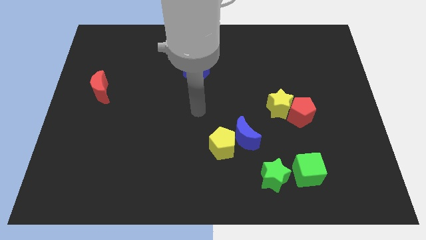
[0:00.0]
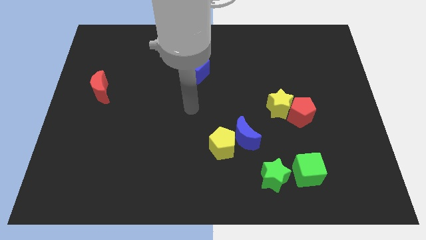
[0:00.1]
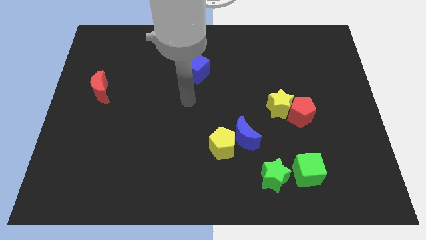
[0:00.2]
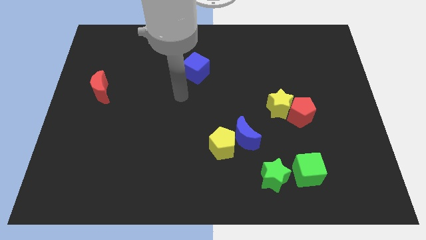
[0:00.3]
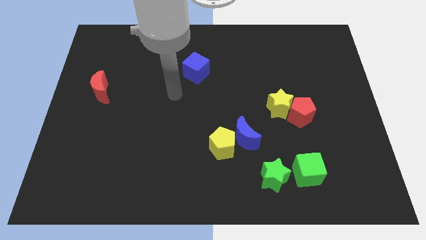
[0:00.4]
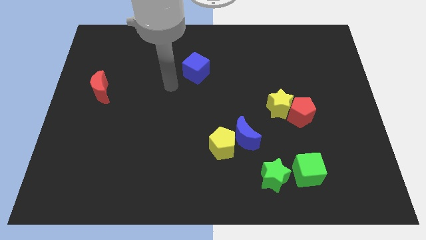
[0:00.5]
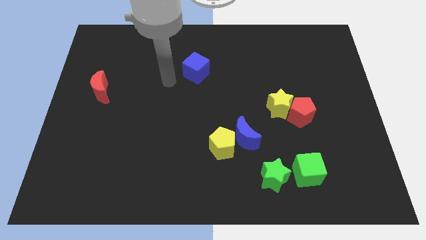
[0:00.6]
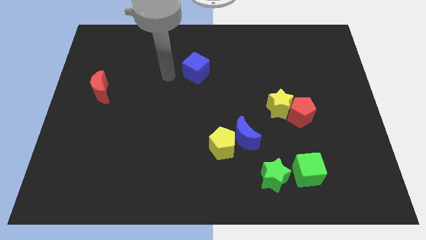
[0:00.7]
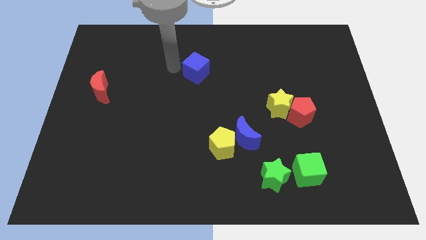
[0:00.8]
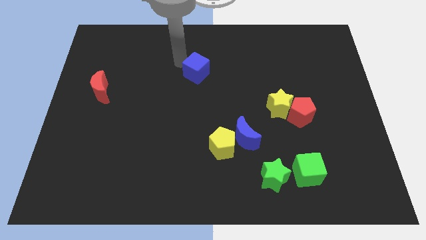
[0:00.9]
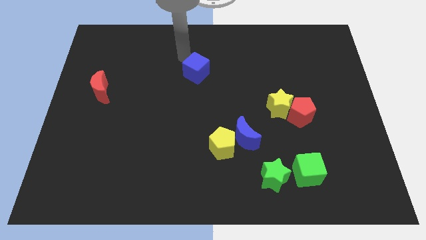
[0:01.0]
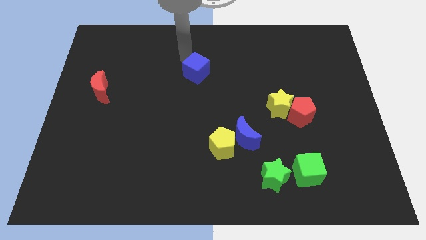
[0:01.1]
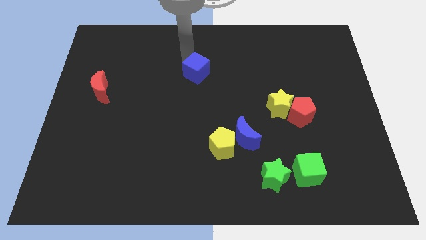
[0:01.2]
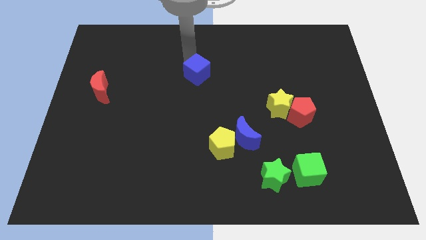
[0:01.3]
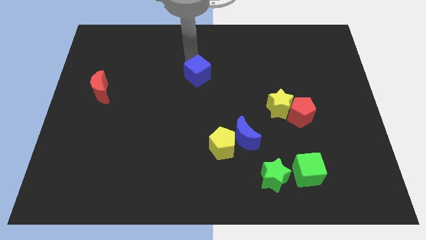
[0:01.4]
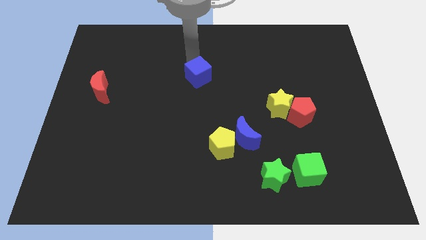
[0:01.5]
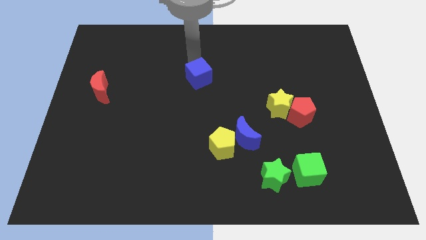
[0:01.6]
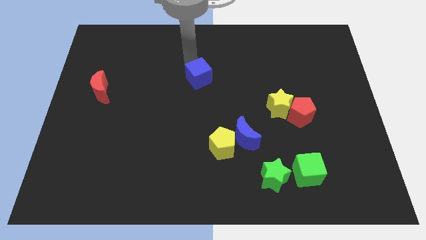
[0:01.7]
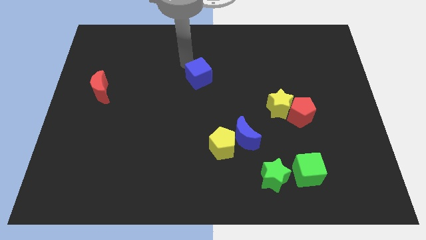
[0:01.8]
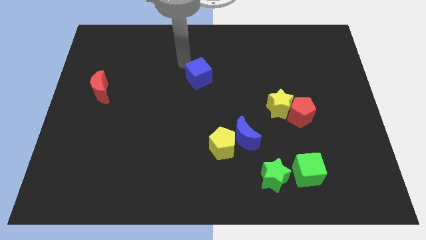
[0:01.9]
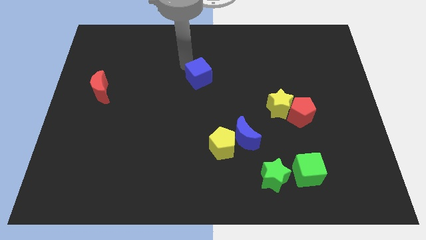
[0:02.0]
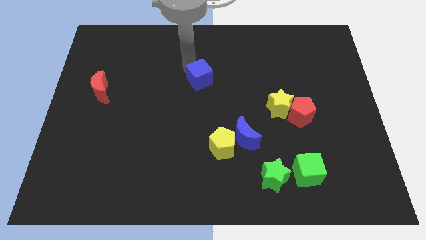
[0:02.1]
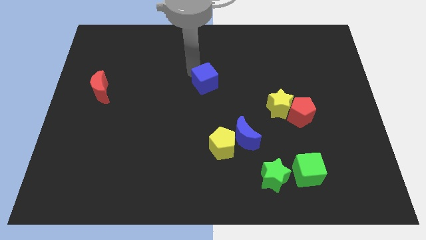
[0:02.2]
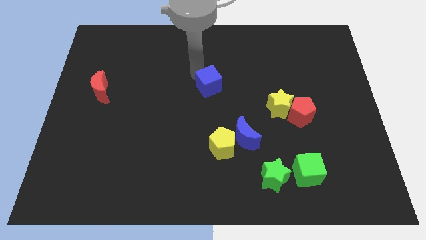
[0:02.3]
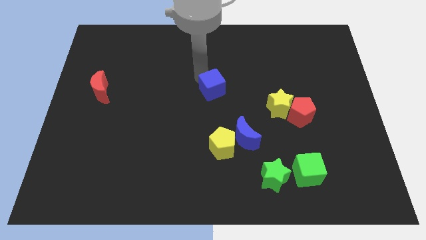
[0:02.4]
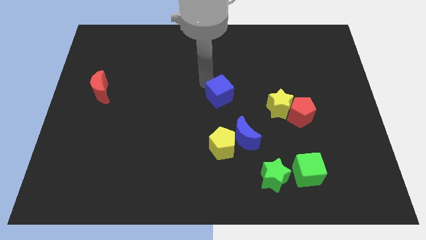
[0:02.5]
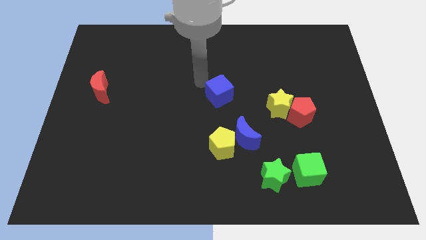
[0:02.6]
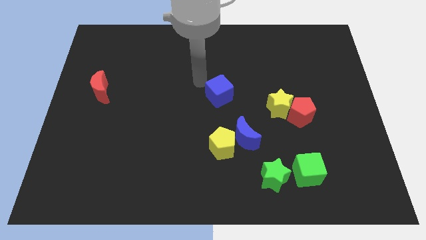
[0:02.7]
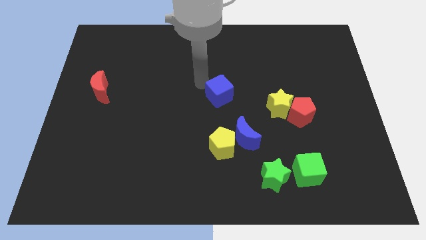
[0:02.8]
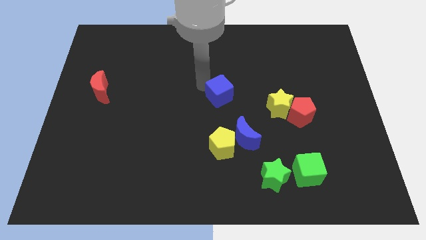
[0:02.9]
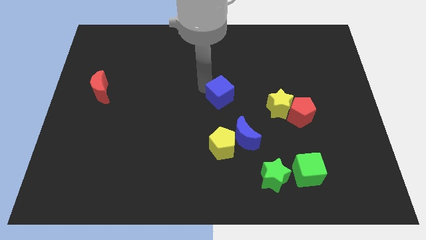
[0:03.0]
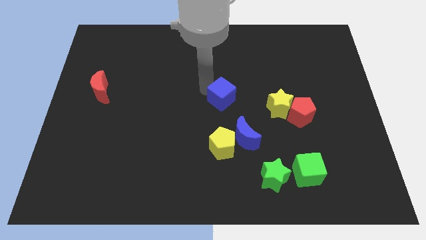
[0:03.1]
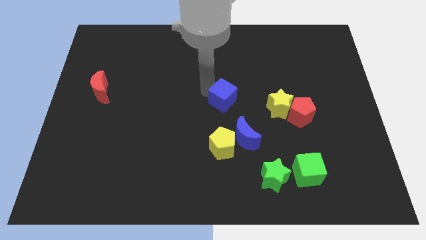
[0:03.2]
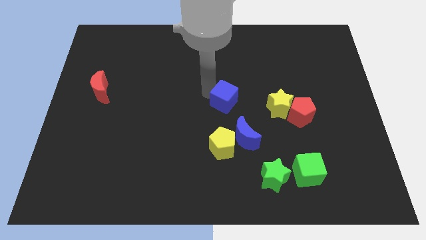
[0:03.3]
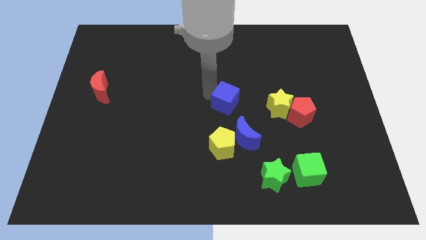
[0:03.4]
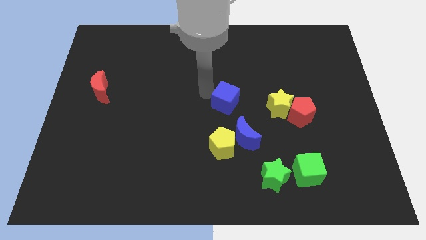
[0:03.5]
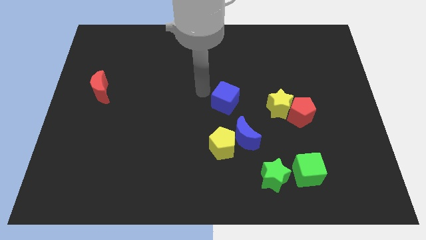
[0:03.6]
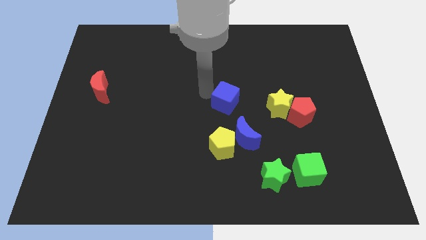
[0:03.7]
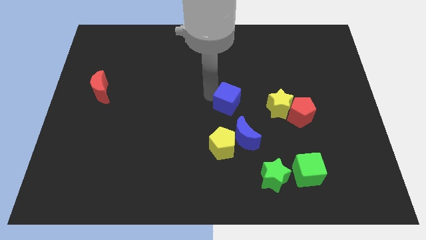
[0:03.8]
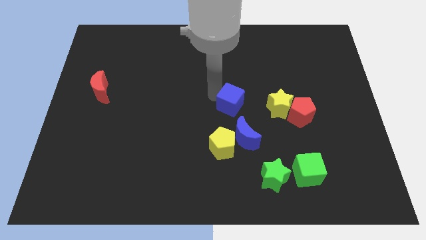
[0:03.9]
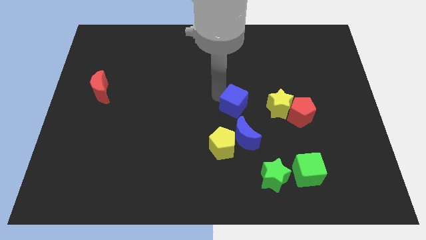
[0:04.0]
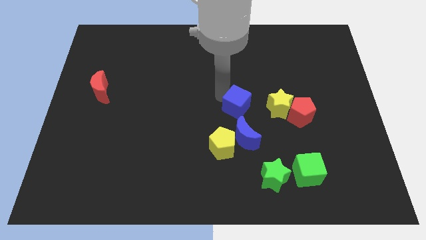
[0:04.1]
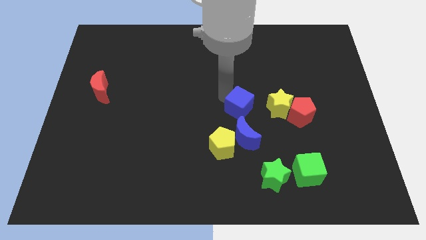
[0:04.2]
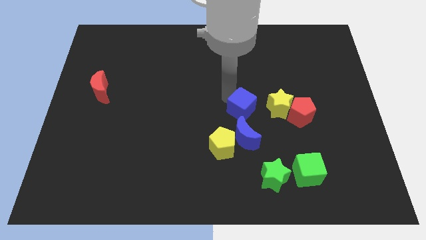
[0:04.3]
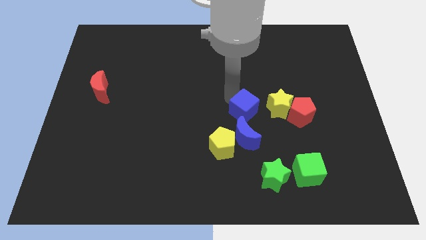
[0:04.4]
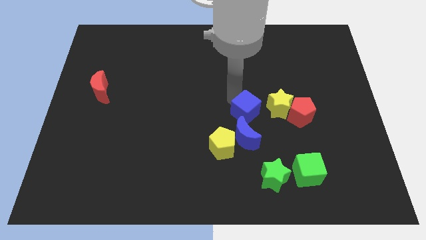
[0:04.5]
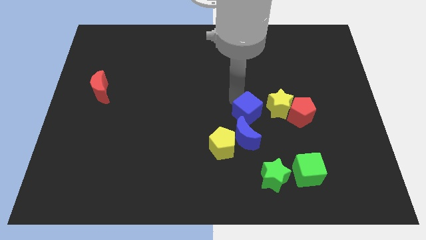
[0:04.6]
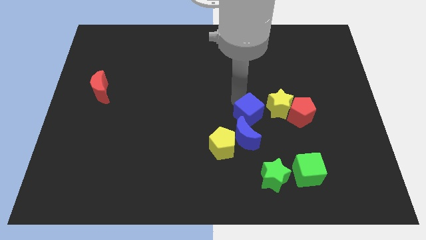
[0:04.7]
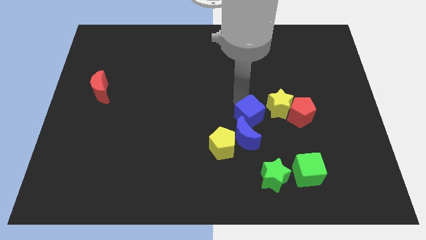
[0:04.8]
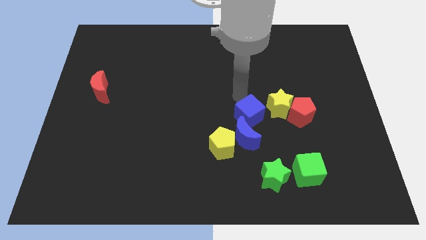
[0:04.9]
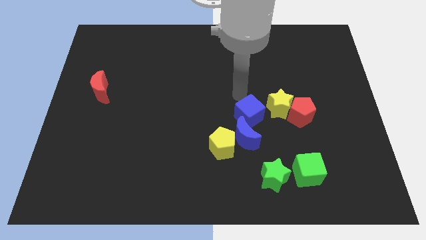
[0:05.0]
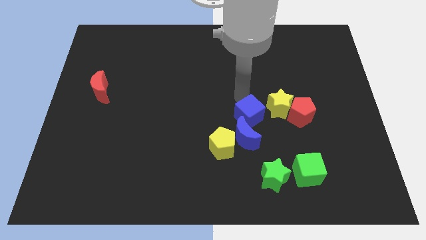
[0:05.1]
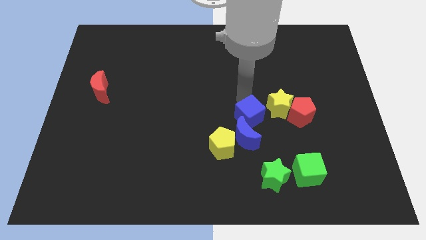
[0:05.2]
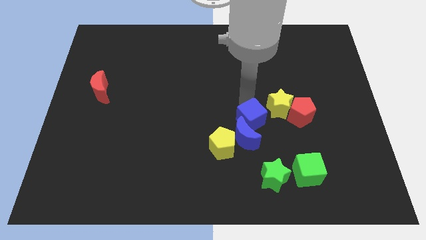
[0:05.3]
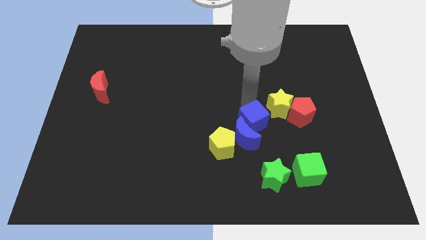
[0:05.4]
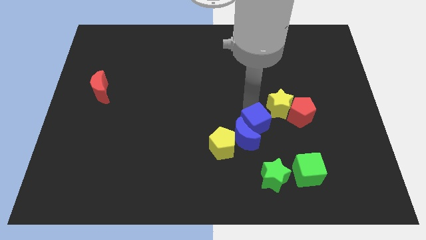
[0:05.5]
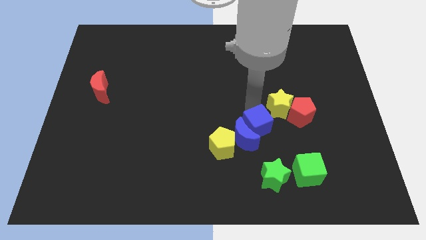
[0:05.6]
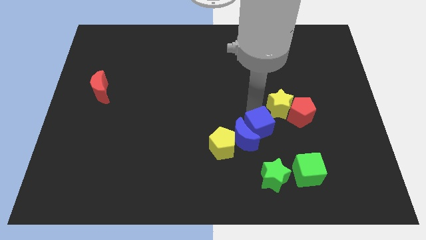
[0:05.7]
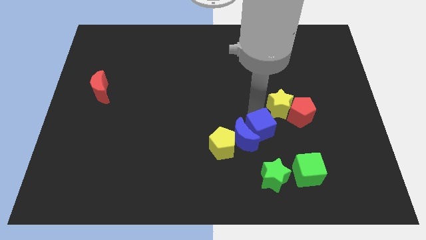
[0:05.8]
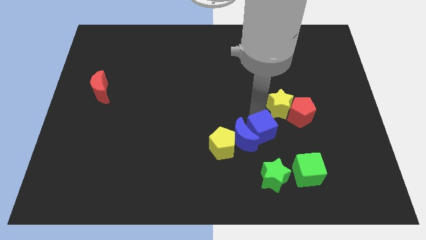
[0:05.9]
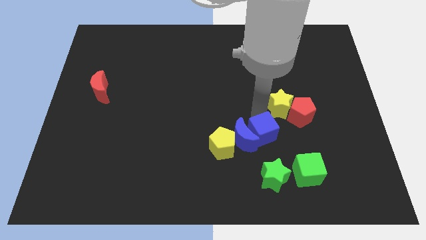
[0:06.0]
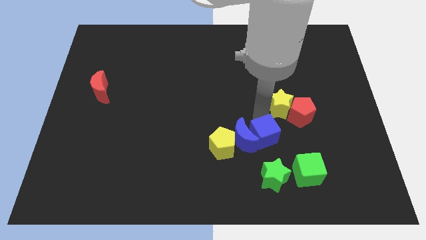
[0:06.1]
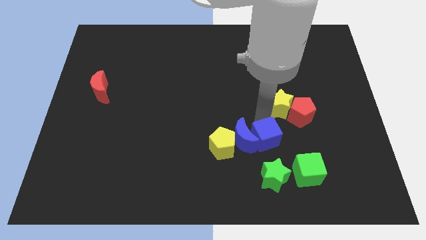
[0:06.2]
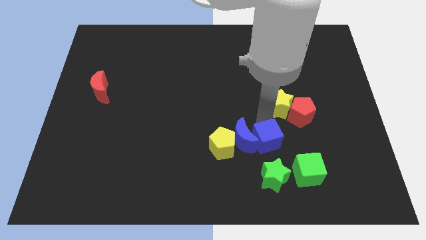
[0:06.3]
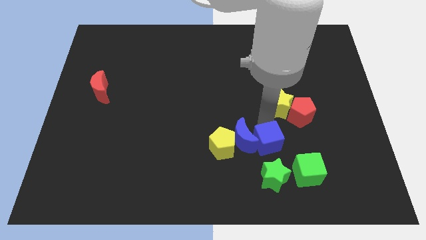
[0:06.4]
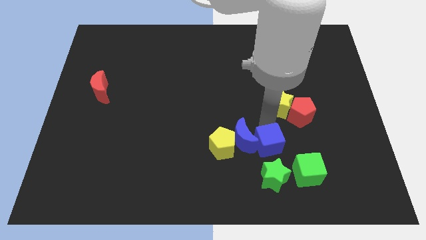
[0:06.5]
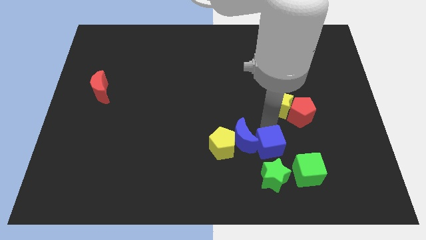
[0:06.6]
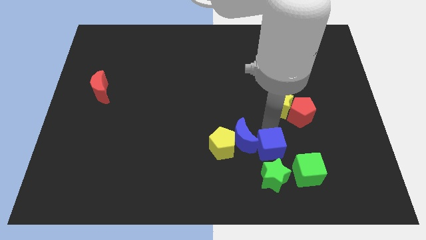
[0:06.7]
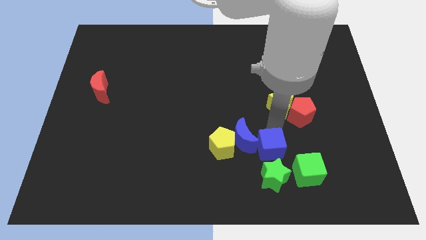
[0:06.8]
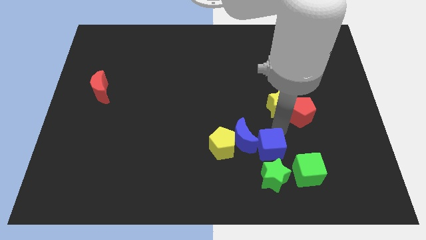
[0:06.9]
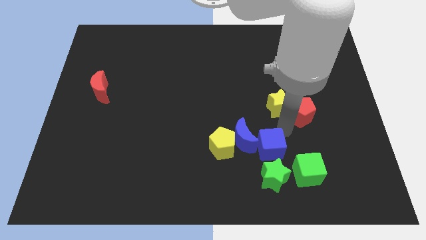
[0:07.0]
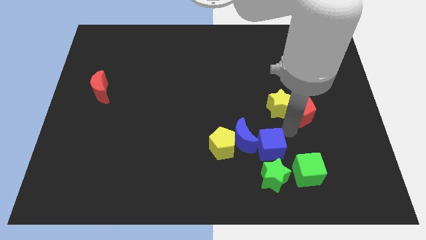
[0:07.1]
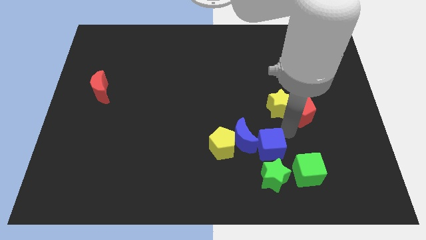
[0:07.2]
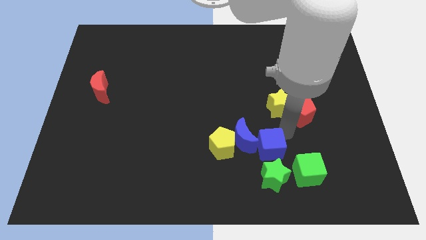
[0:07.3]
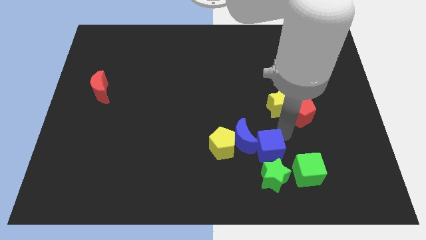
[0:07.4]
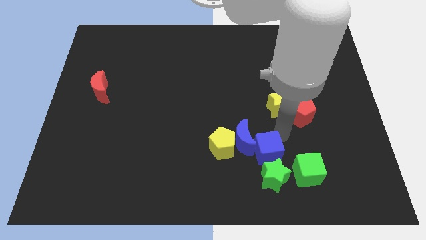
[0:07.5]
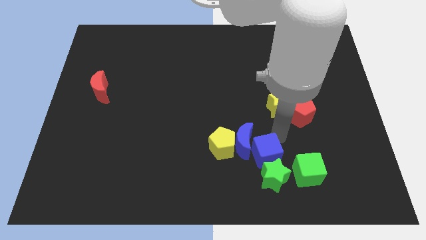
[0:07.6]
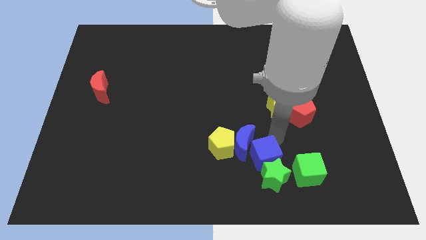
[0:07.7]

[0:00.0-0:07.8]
push the blue cube diagonally down and to the right of the yellow pentagon
